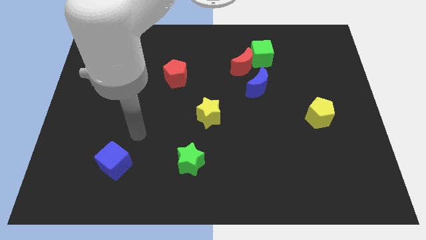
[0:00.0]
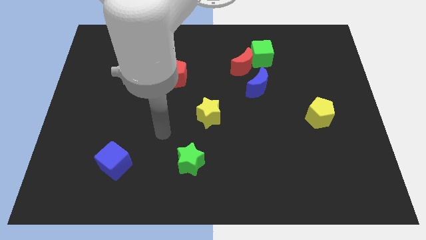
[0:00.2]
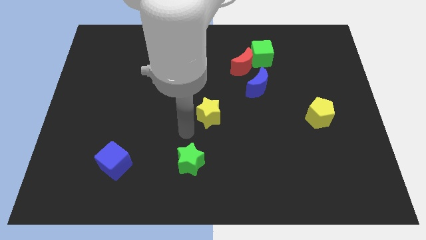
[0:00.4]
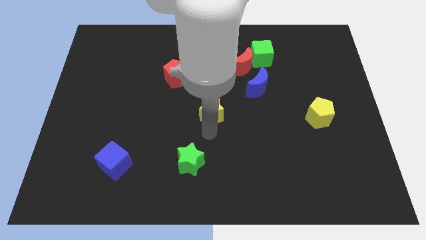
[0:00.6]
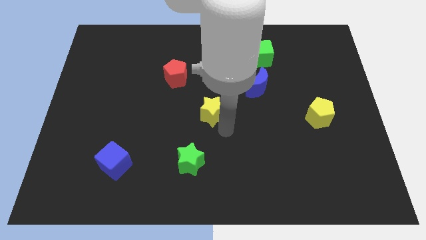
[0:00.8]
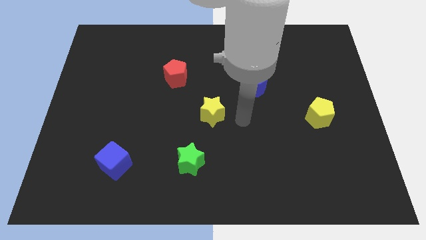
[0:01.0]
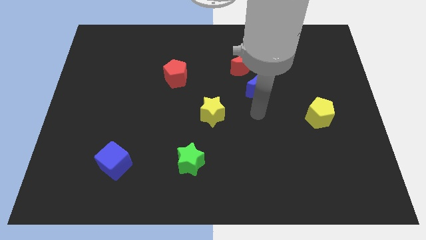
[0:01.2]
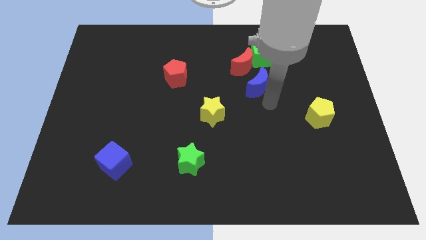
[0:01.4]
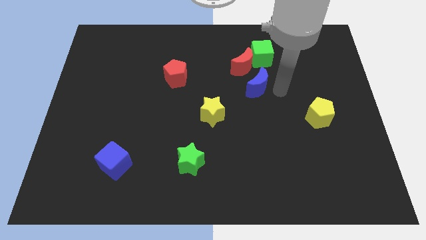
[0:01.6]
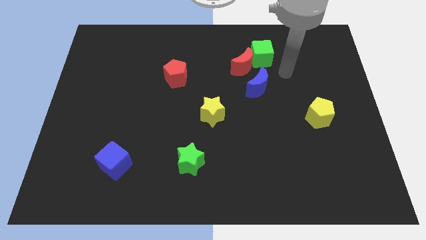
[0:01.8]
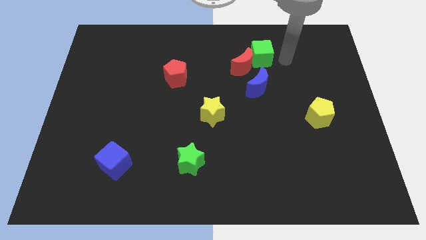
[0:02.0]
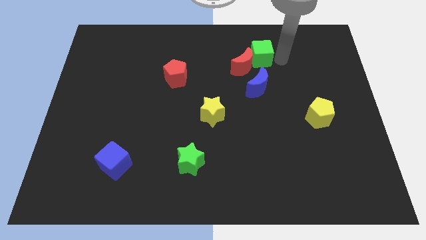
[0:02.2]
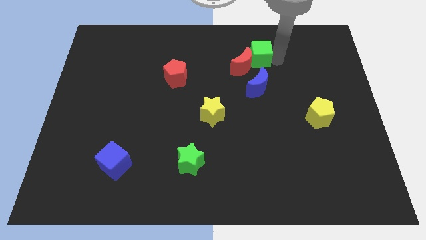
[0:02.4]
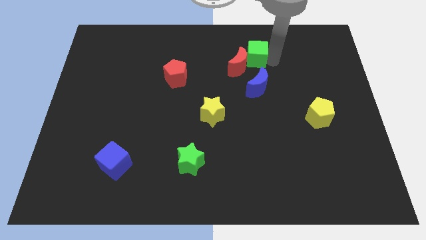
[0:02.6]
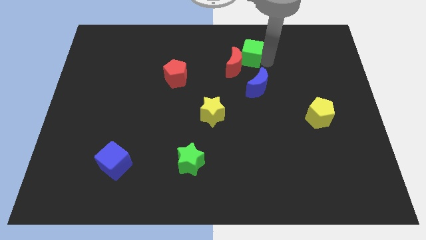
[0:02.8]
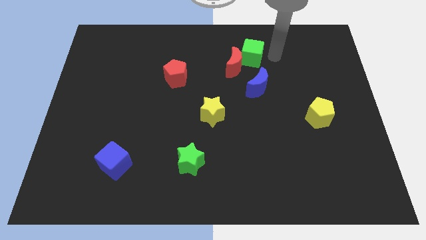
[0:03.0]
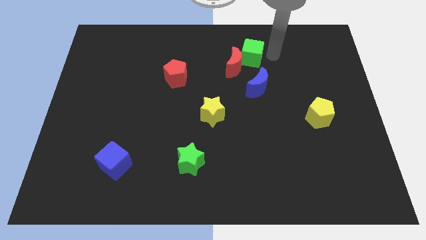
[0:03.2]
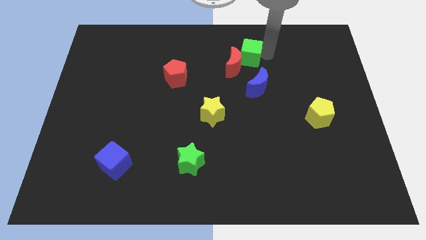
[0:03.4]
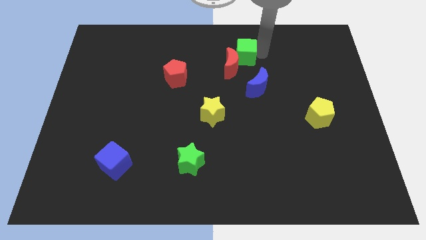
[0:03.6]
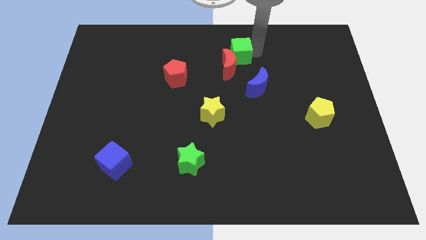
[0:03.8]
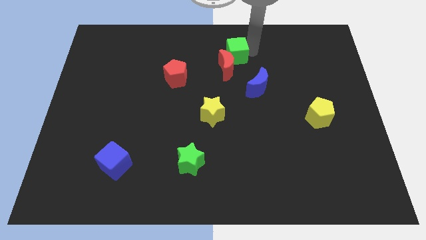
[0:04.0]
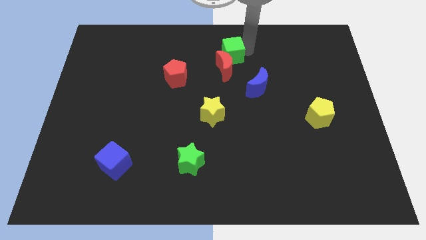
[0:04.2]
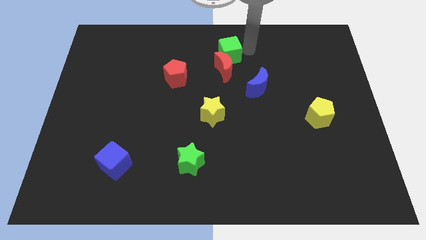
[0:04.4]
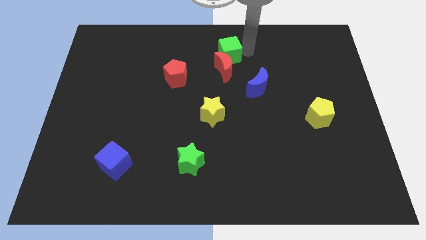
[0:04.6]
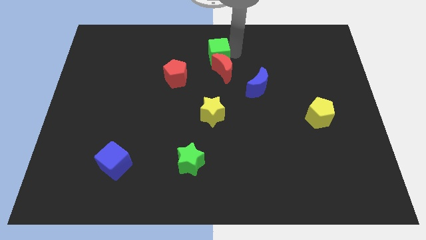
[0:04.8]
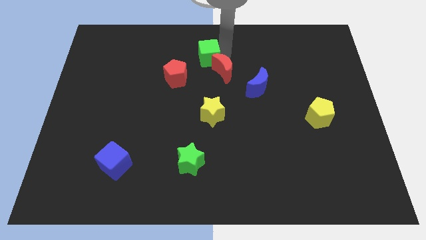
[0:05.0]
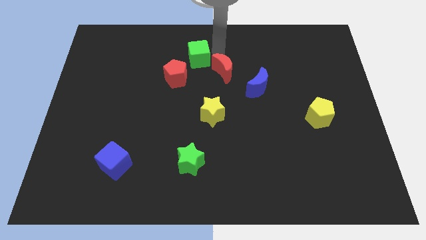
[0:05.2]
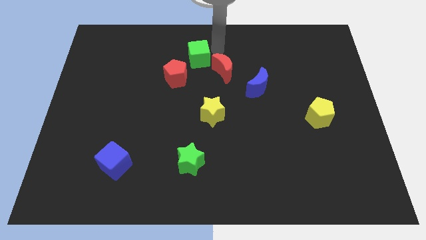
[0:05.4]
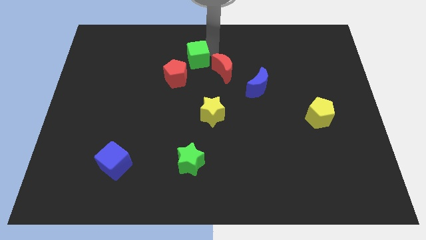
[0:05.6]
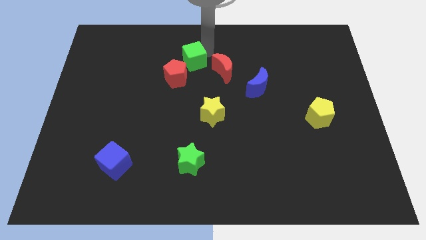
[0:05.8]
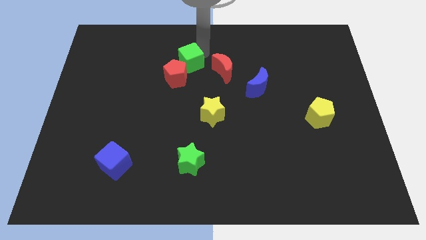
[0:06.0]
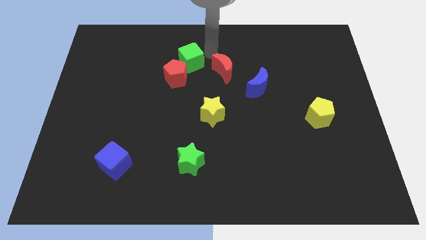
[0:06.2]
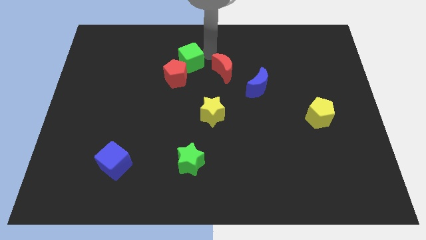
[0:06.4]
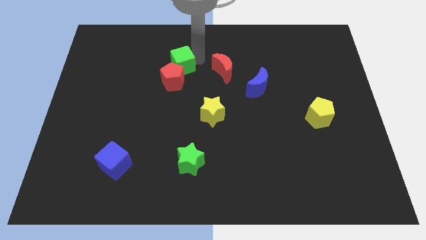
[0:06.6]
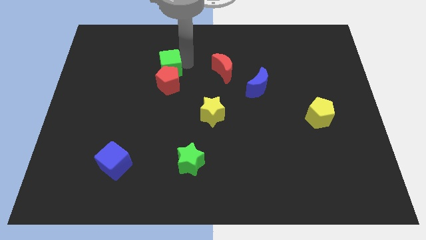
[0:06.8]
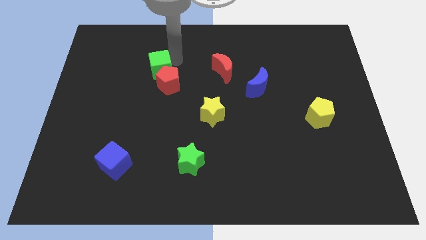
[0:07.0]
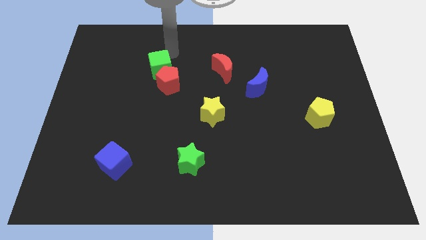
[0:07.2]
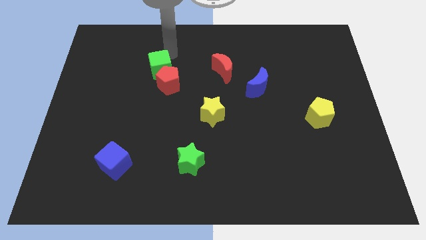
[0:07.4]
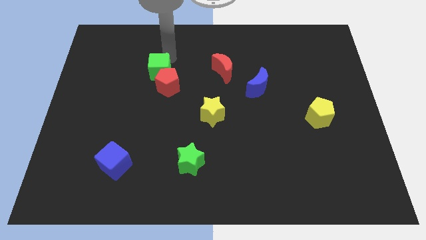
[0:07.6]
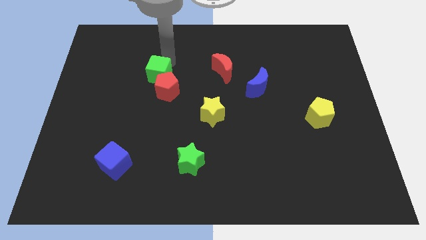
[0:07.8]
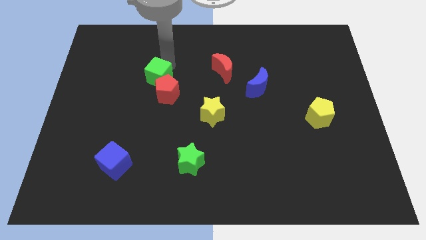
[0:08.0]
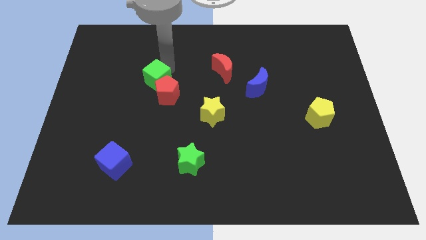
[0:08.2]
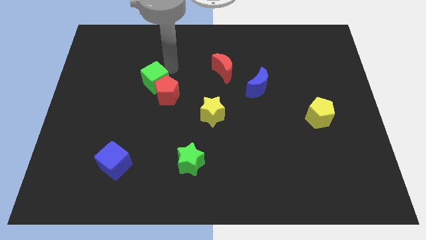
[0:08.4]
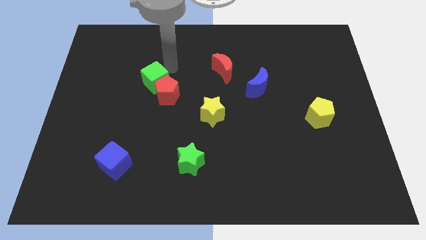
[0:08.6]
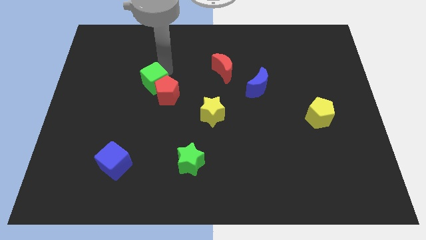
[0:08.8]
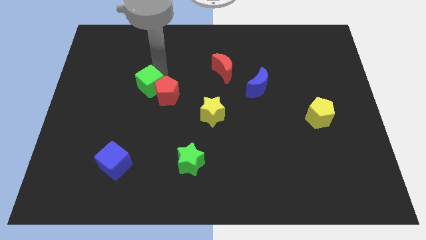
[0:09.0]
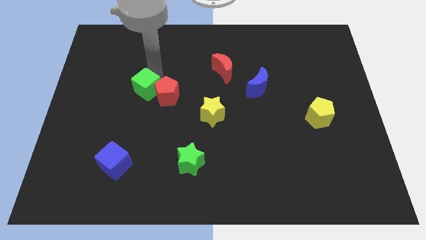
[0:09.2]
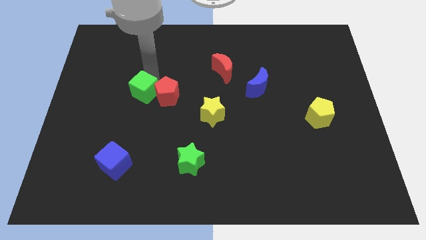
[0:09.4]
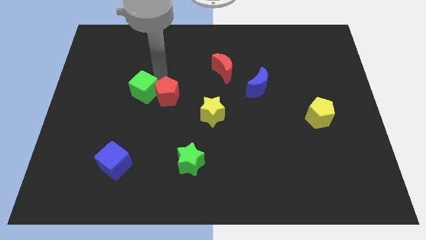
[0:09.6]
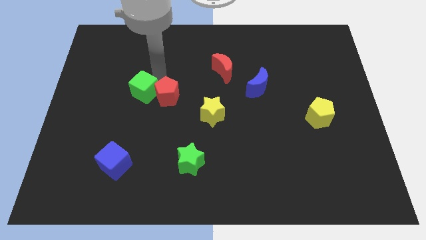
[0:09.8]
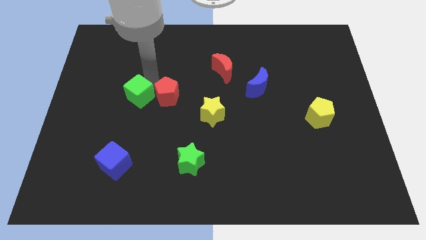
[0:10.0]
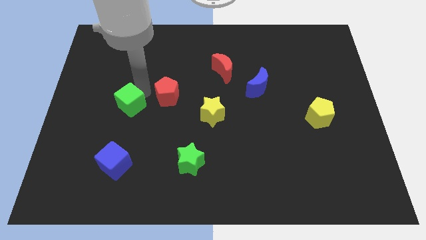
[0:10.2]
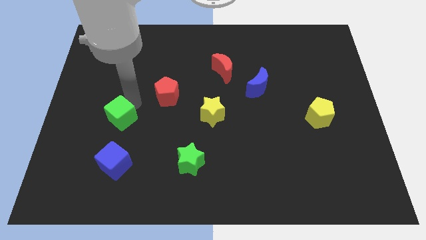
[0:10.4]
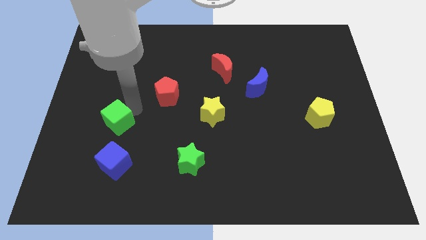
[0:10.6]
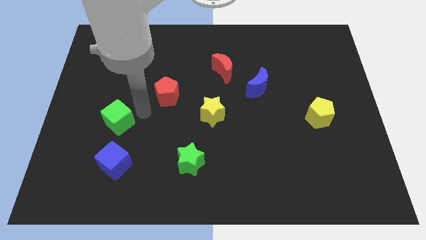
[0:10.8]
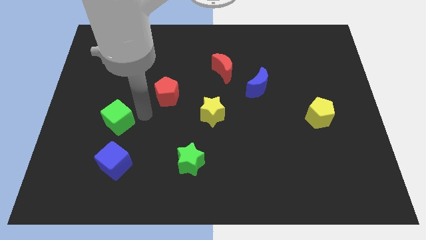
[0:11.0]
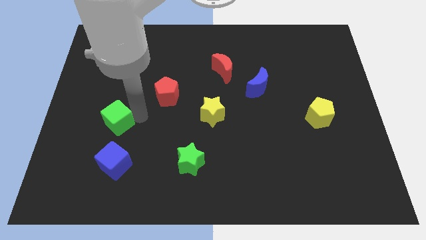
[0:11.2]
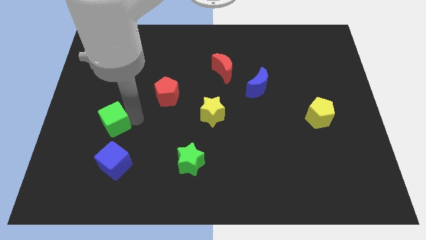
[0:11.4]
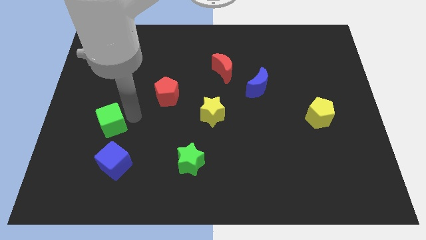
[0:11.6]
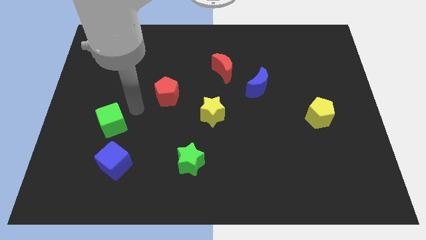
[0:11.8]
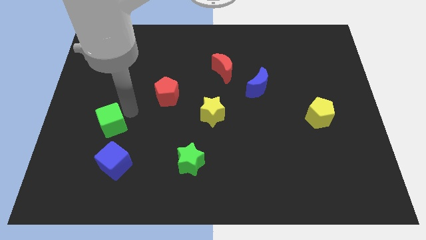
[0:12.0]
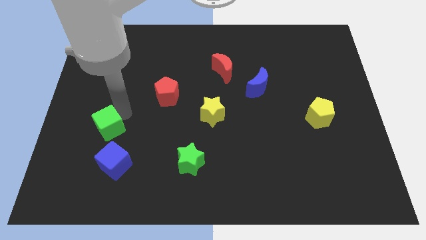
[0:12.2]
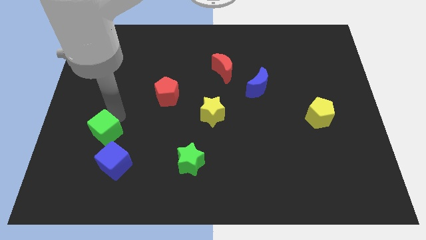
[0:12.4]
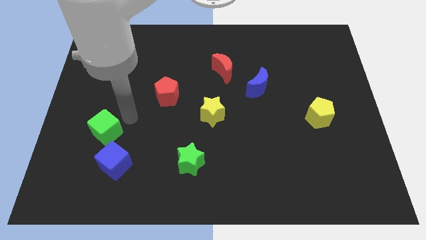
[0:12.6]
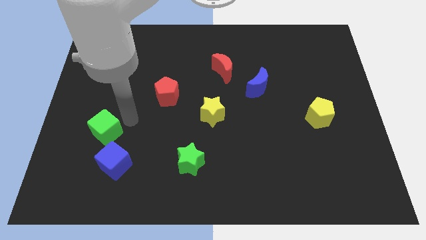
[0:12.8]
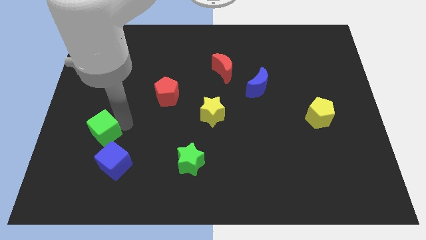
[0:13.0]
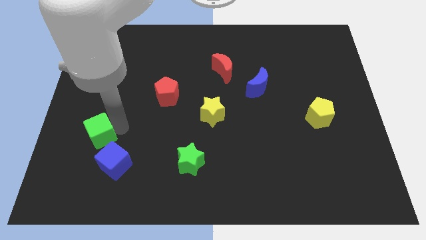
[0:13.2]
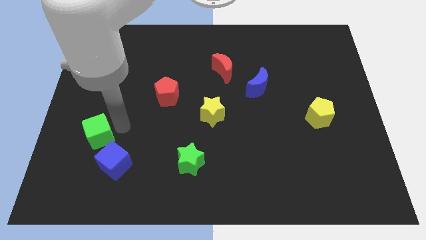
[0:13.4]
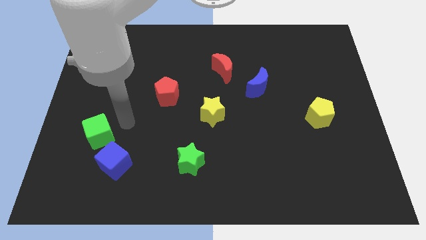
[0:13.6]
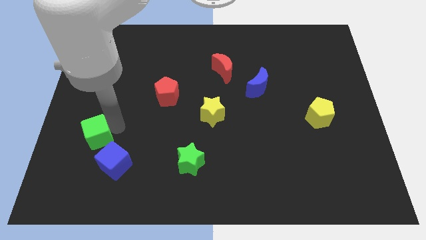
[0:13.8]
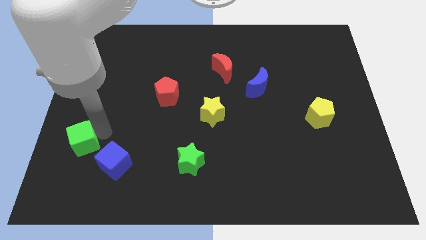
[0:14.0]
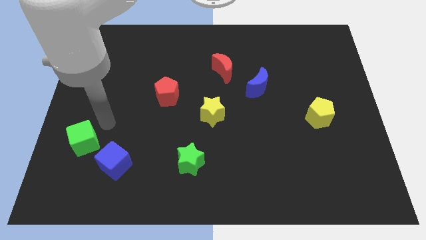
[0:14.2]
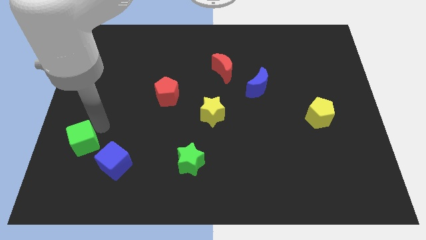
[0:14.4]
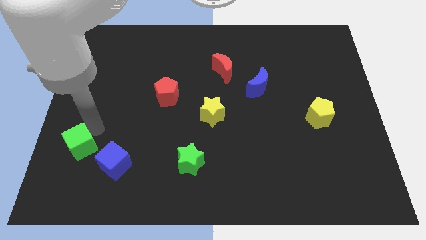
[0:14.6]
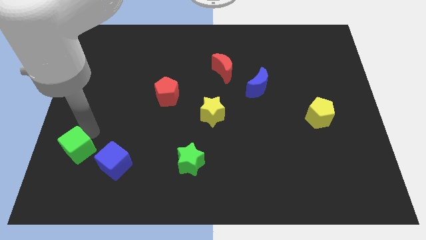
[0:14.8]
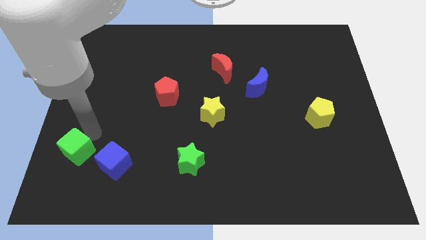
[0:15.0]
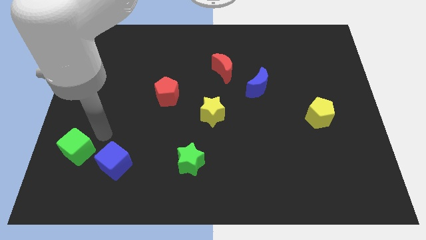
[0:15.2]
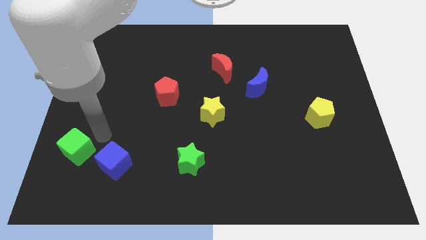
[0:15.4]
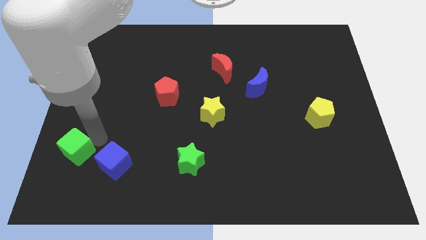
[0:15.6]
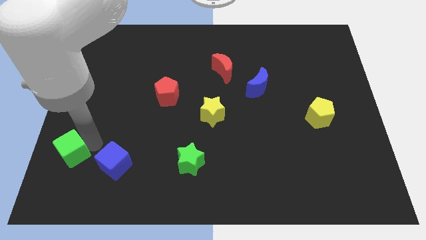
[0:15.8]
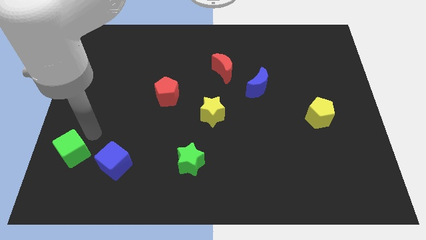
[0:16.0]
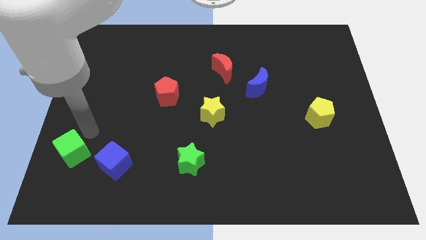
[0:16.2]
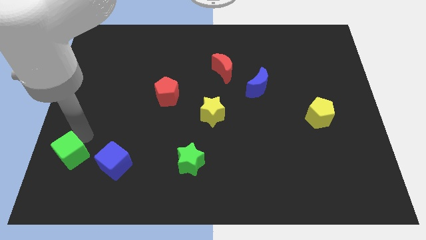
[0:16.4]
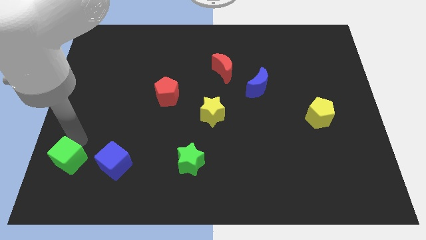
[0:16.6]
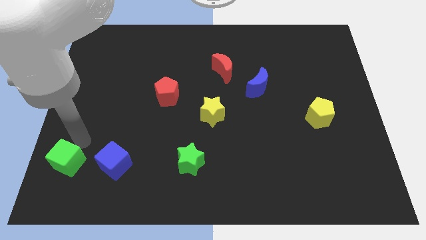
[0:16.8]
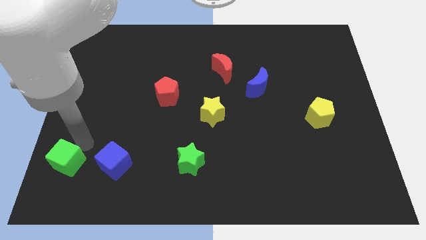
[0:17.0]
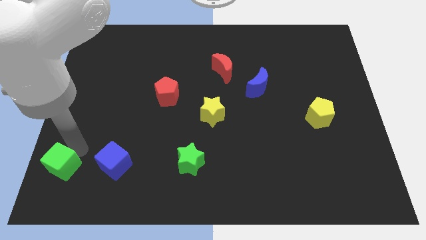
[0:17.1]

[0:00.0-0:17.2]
slide the green cube to the bottom left corner
